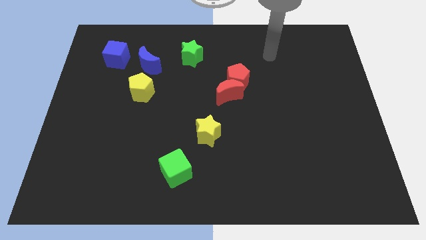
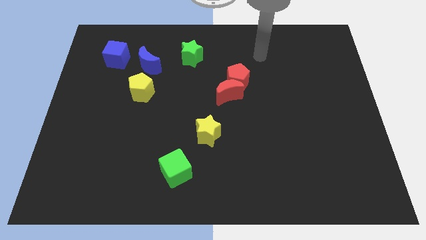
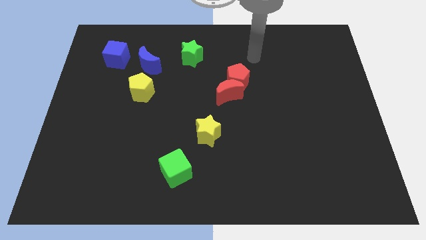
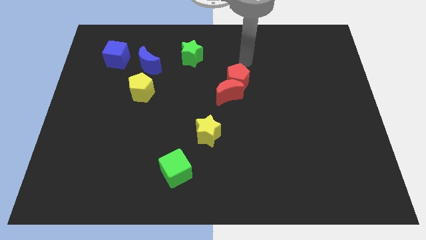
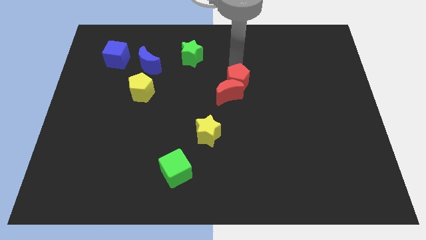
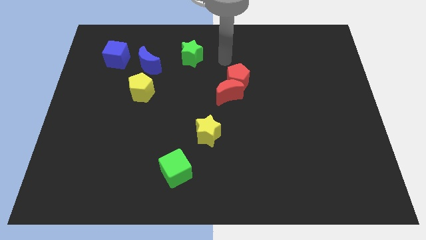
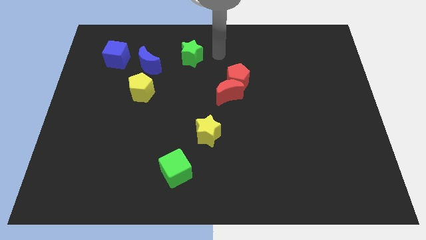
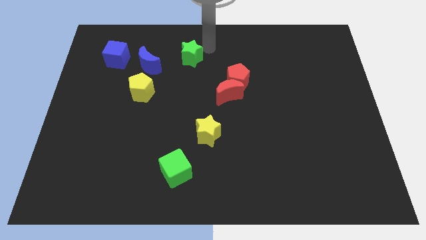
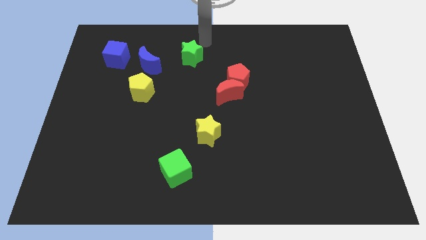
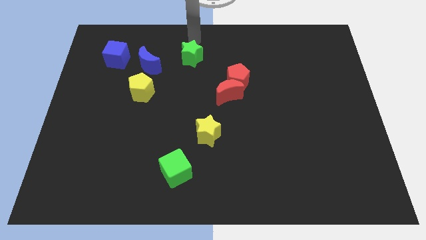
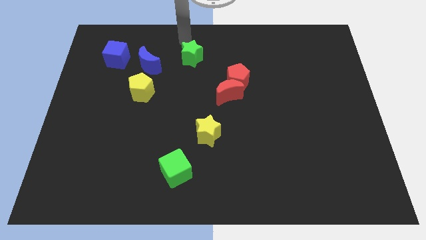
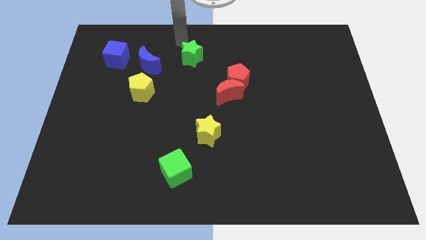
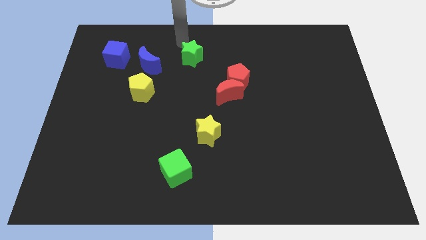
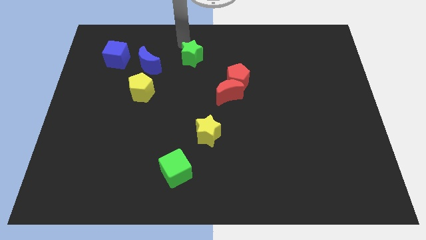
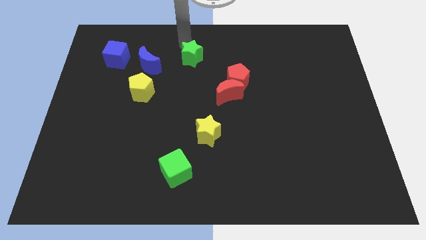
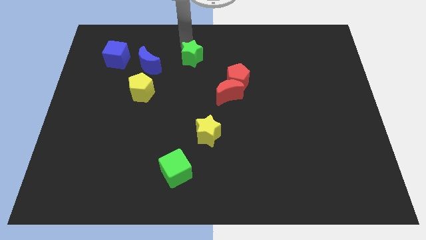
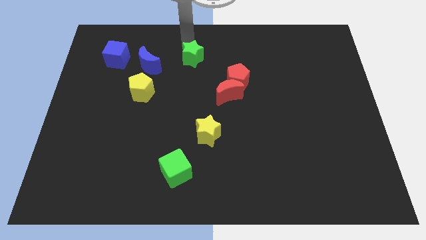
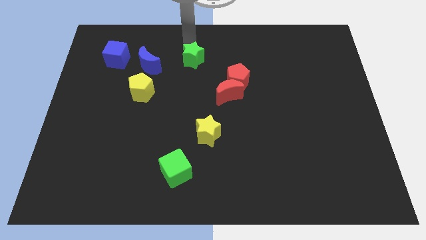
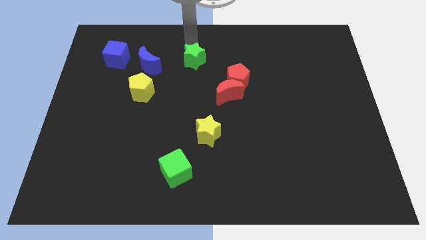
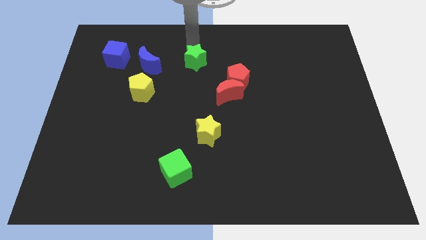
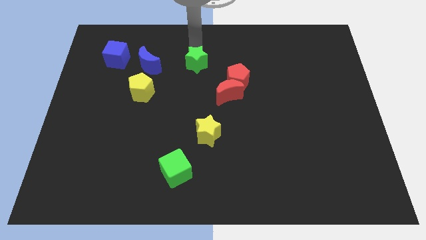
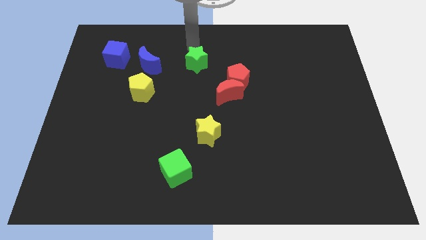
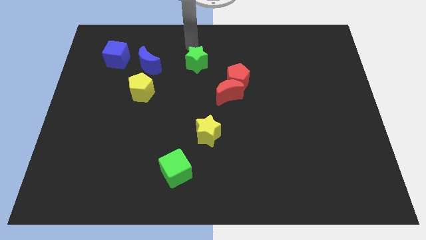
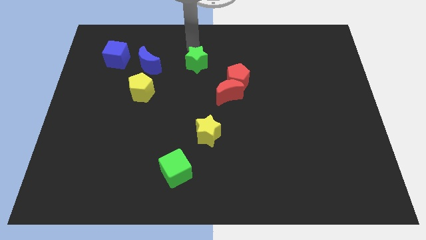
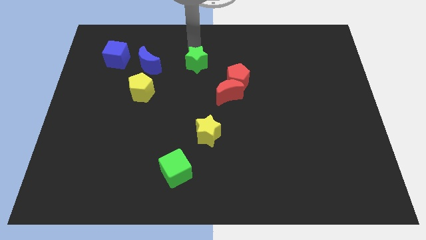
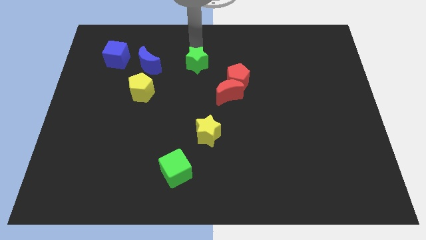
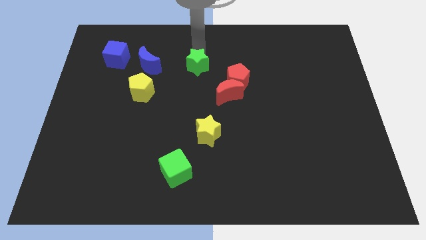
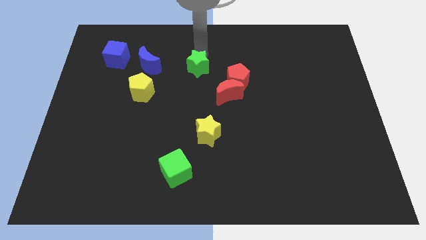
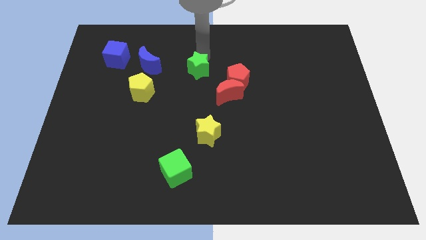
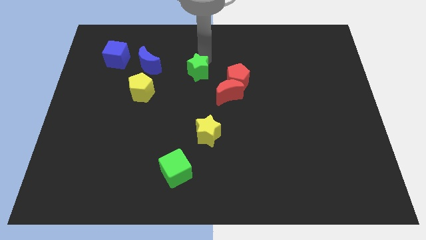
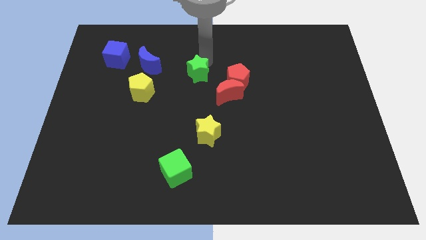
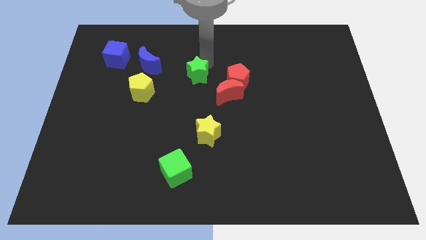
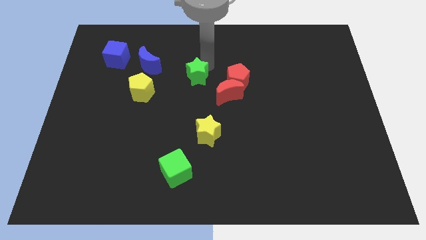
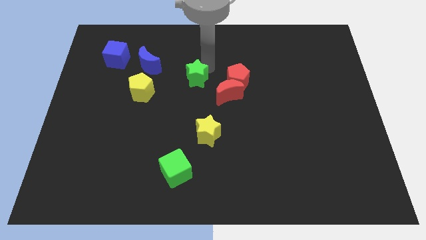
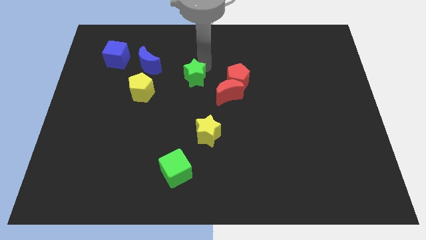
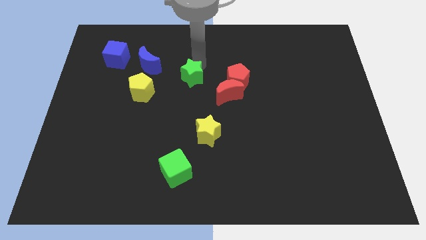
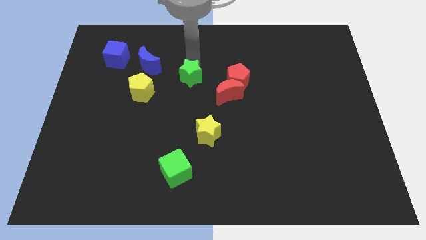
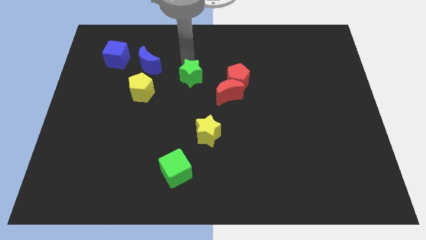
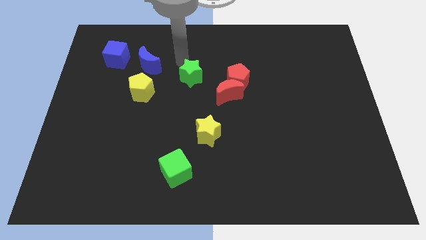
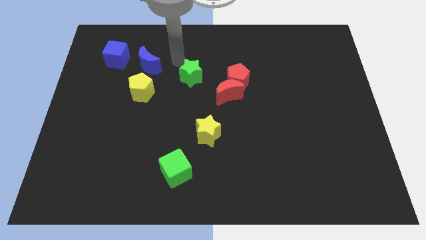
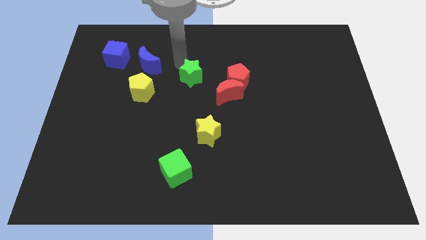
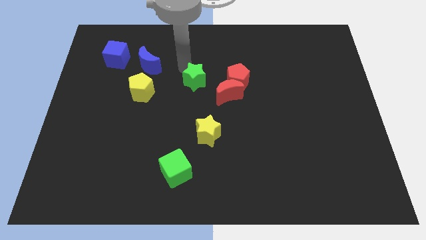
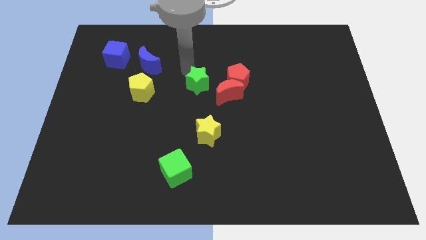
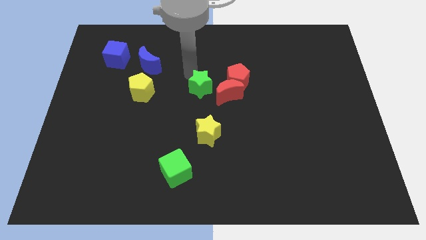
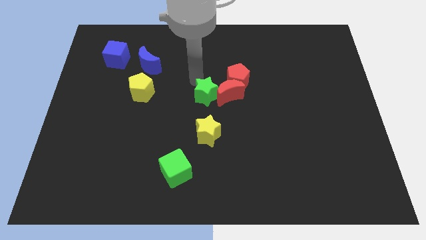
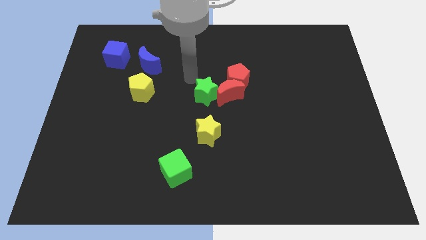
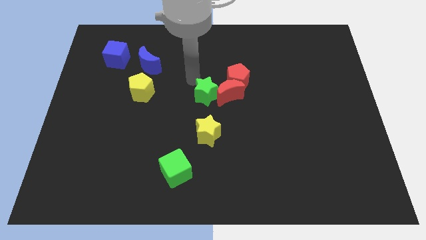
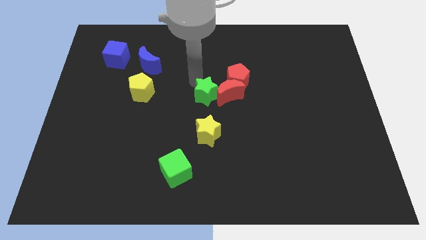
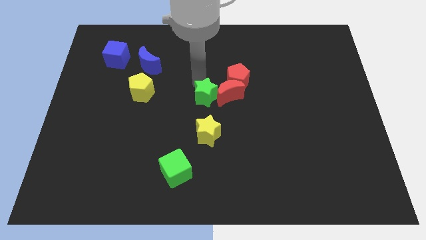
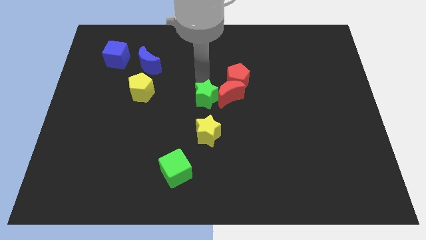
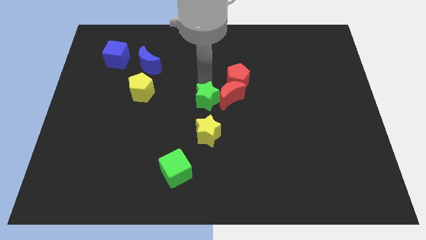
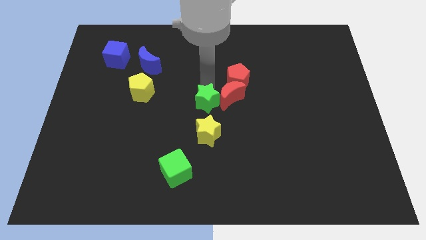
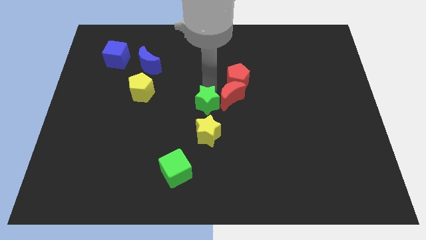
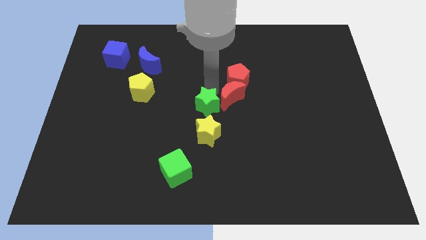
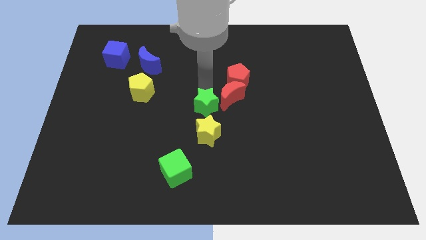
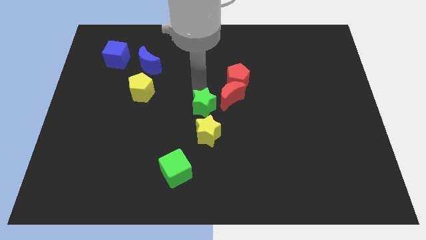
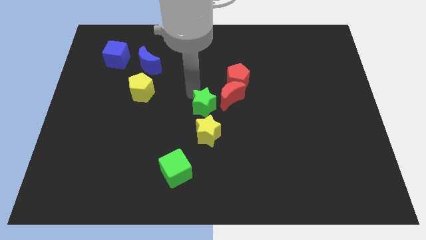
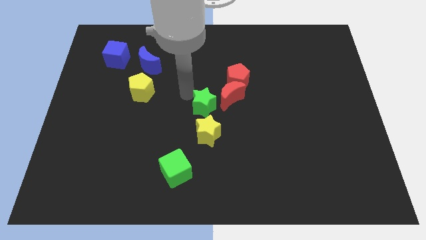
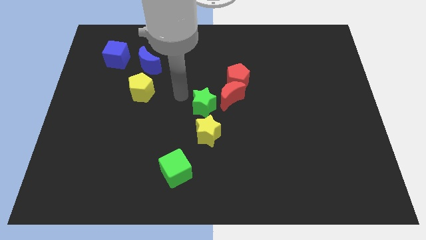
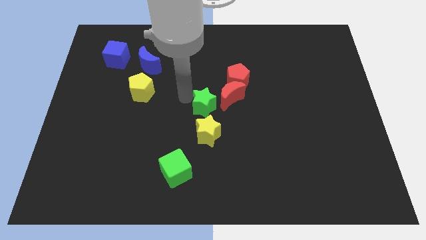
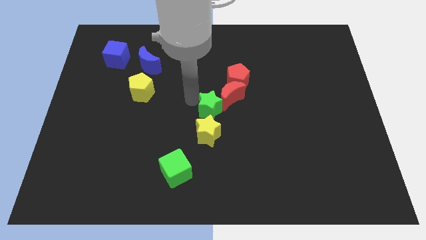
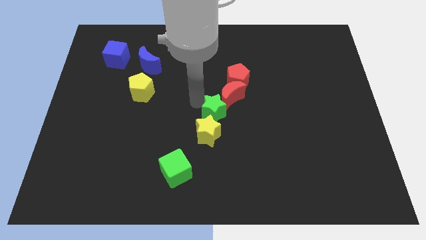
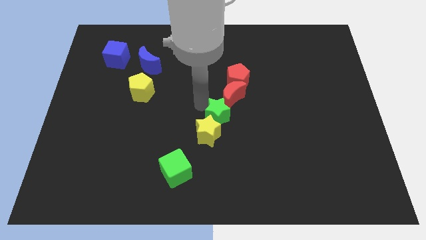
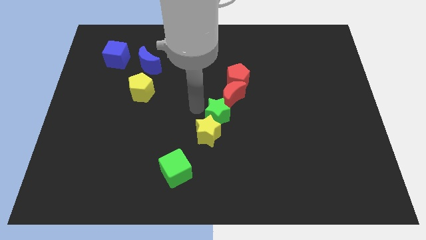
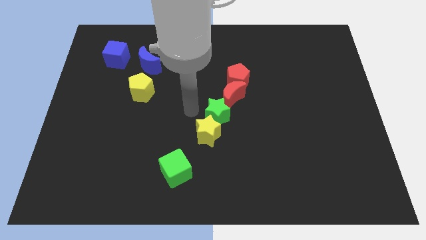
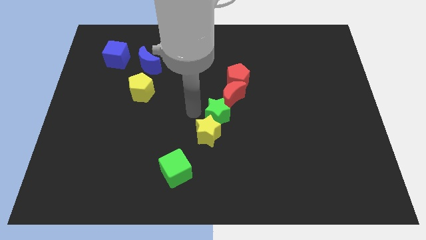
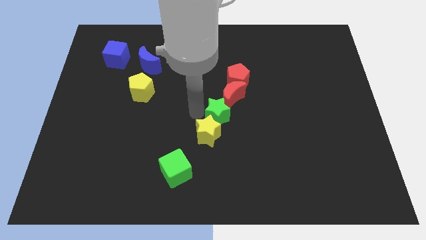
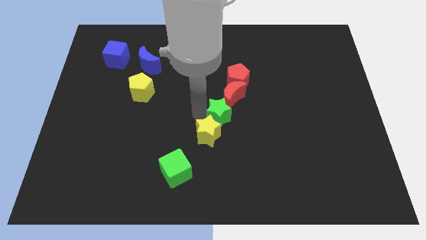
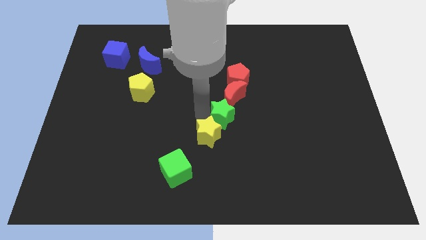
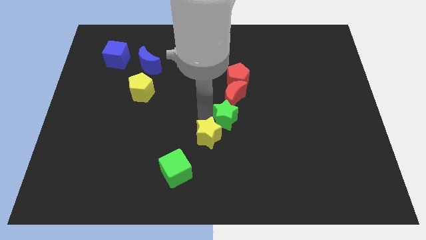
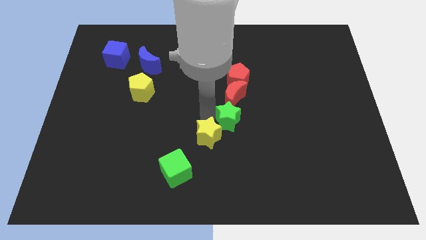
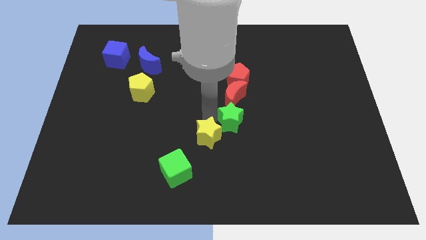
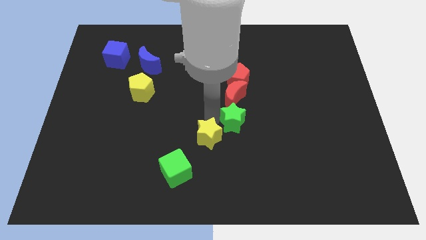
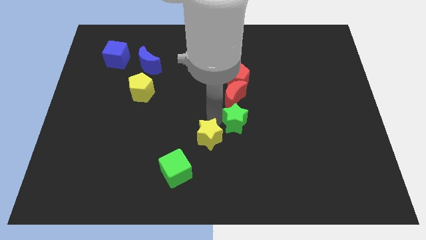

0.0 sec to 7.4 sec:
push the green star down and right diagonally

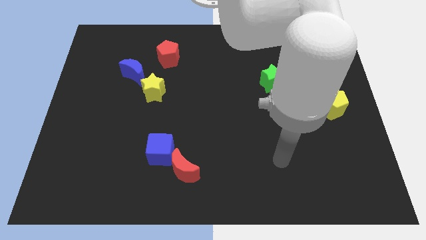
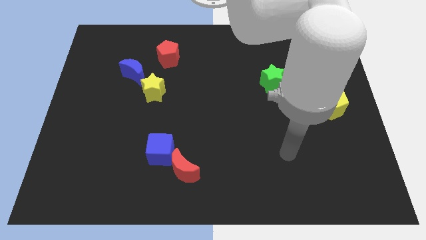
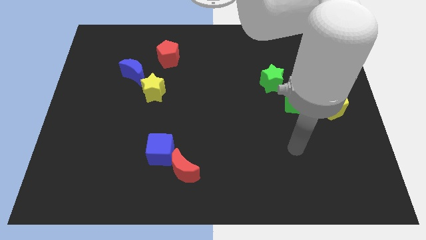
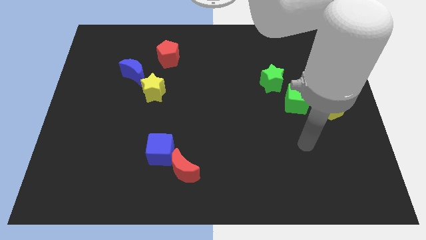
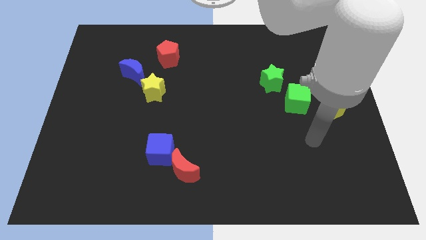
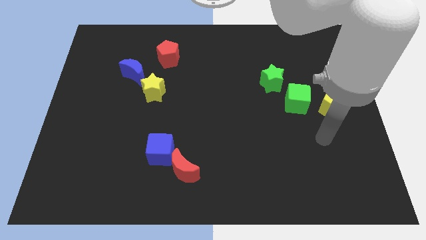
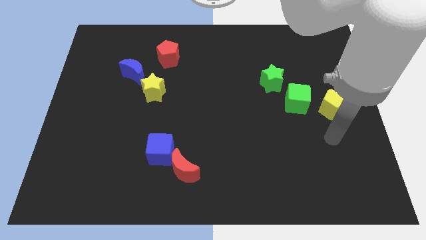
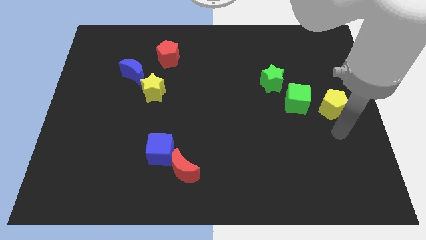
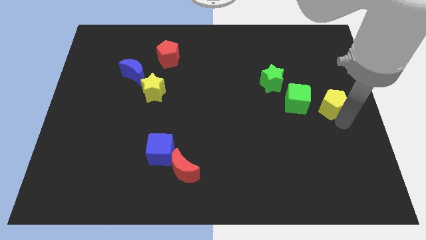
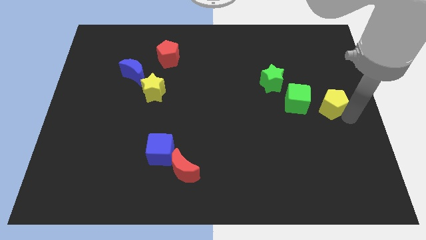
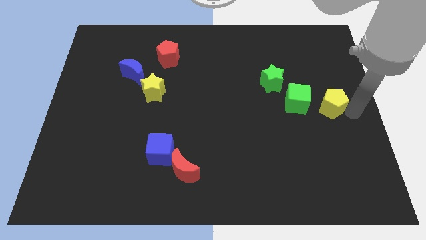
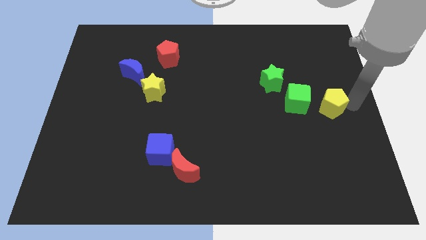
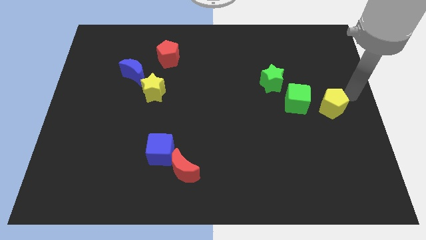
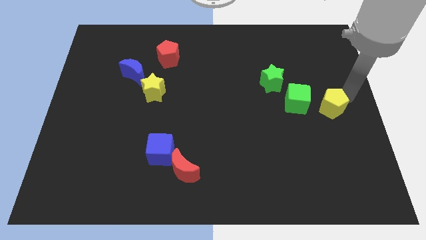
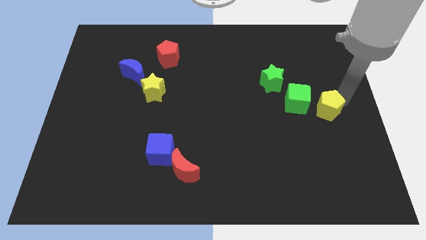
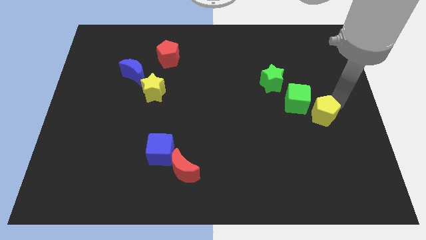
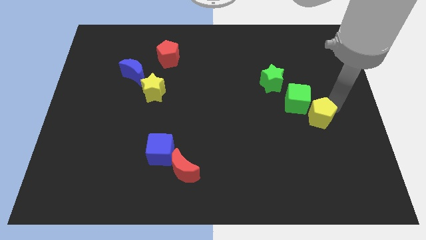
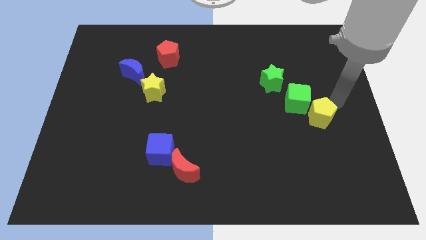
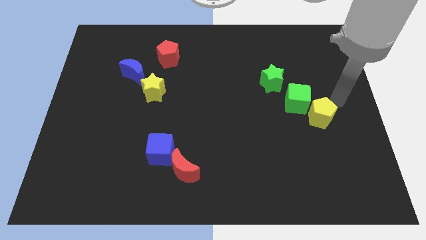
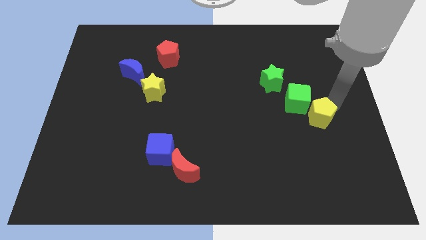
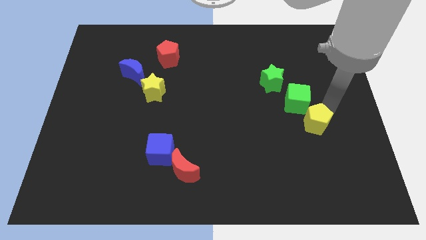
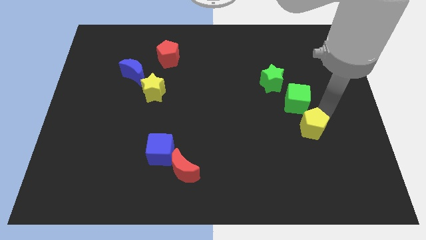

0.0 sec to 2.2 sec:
push the yellow pentagon diagonally downwards and to the left a little bit
